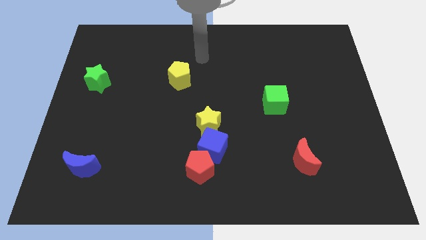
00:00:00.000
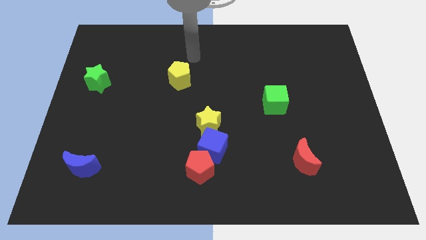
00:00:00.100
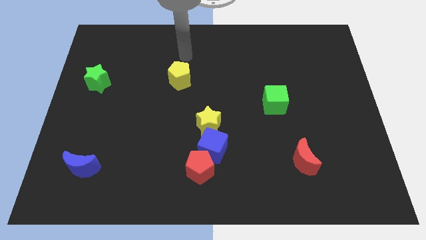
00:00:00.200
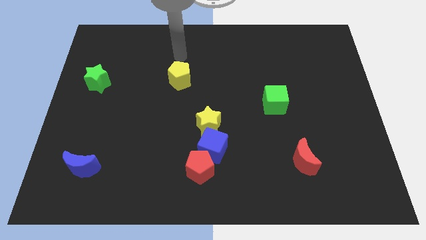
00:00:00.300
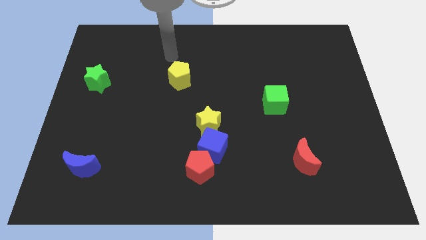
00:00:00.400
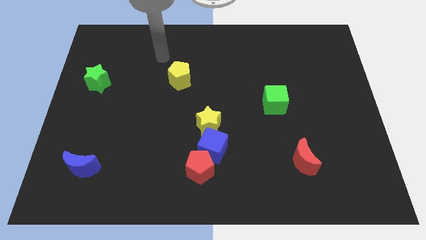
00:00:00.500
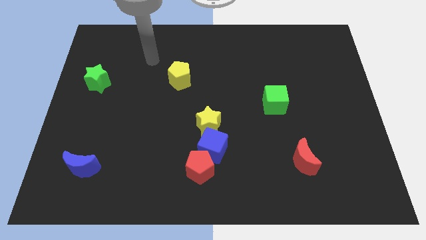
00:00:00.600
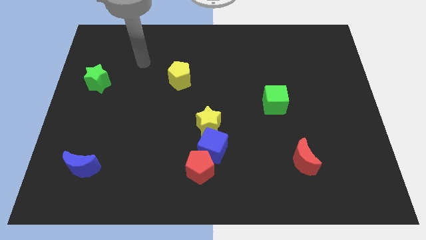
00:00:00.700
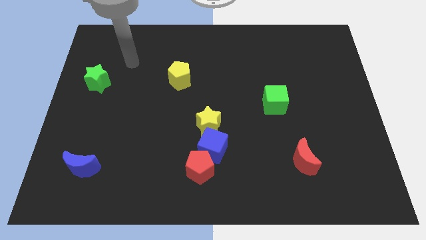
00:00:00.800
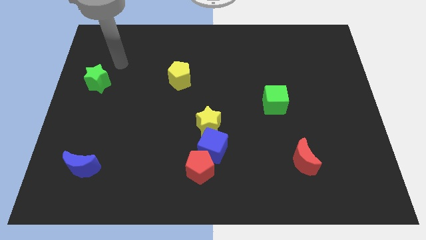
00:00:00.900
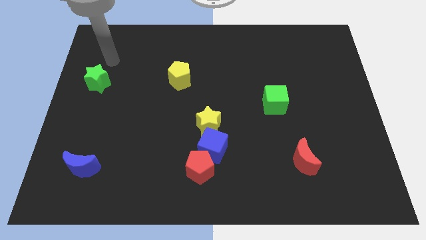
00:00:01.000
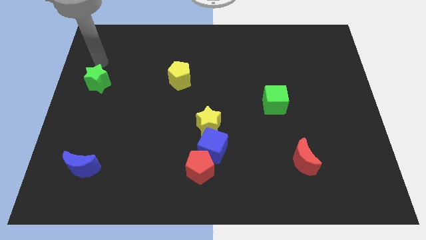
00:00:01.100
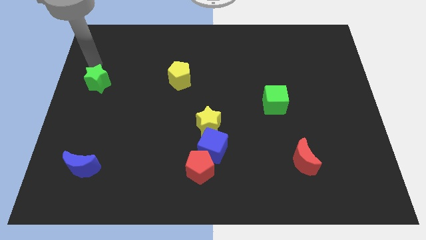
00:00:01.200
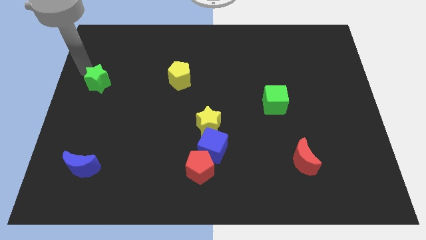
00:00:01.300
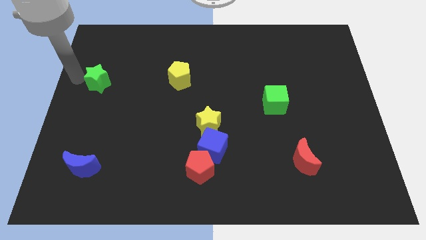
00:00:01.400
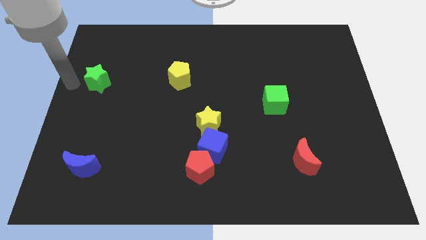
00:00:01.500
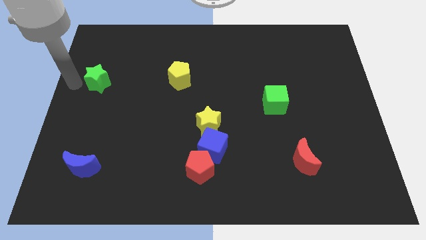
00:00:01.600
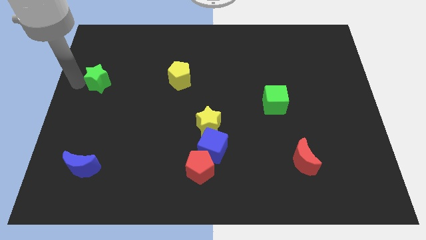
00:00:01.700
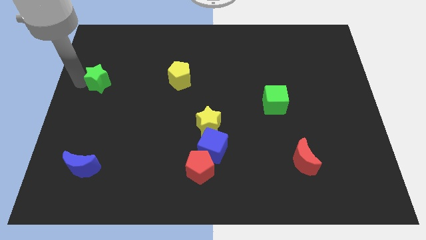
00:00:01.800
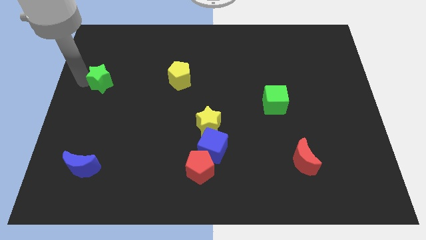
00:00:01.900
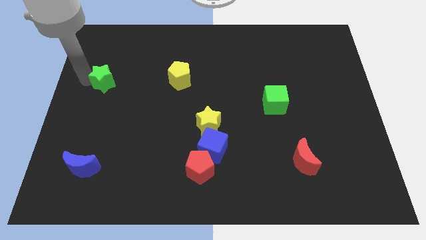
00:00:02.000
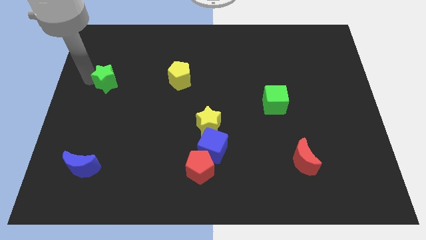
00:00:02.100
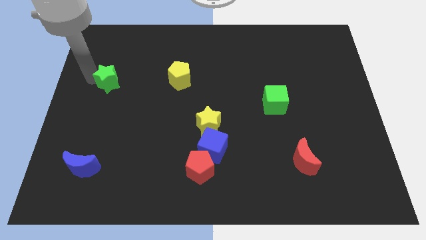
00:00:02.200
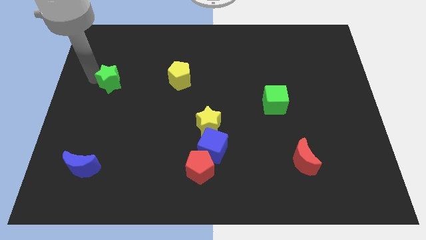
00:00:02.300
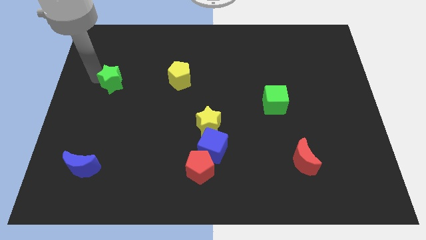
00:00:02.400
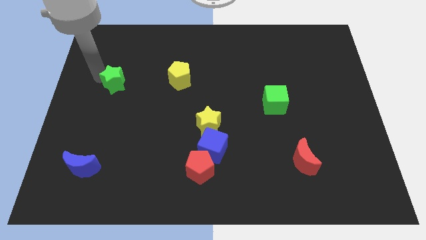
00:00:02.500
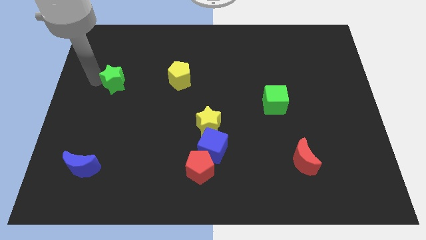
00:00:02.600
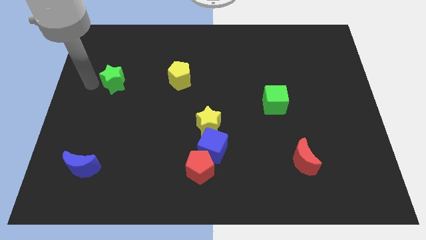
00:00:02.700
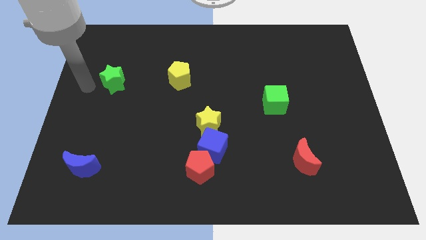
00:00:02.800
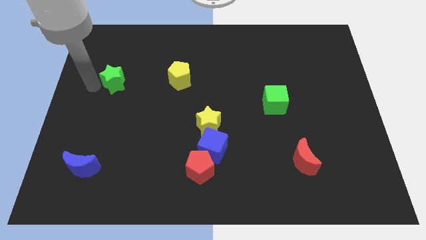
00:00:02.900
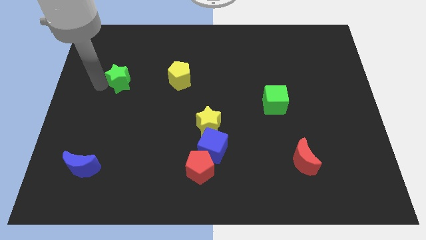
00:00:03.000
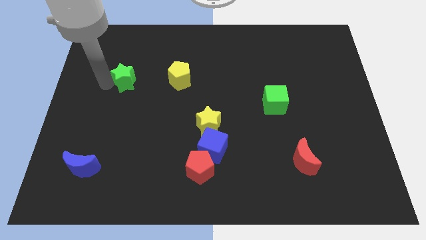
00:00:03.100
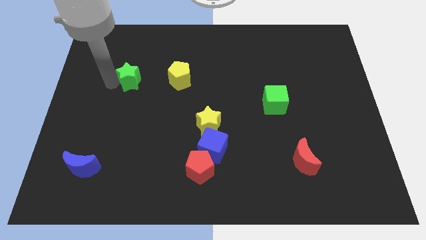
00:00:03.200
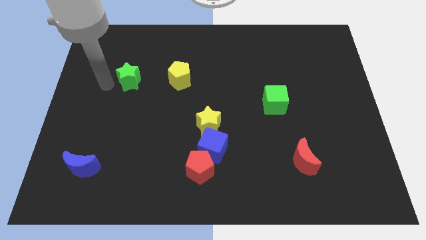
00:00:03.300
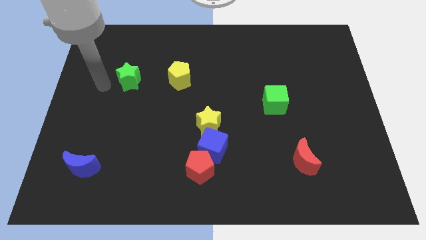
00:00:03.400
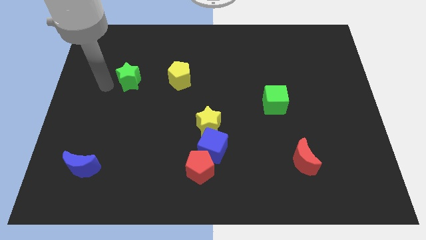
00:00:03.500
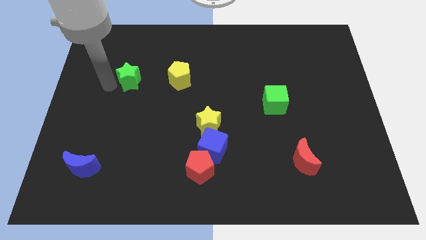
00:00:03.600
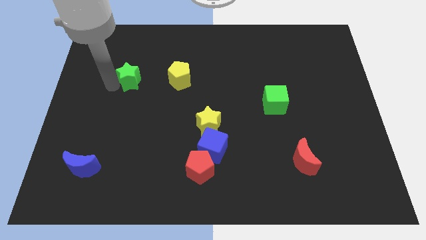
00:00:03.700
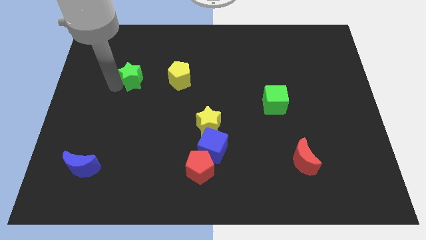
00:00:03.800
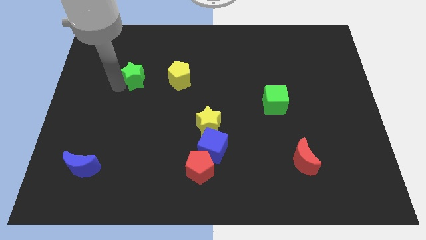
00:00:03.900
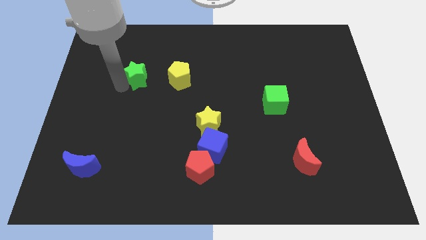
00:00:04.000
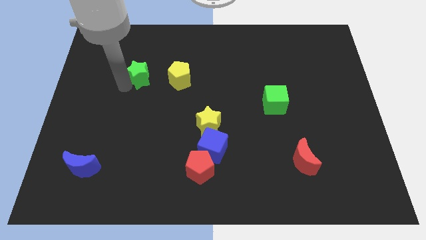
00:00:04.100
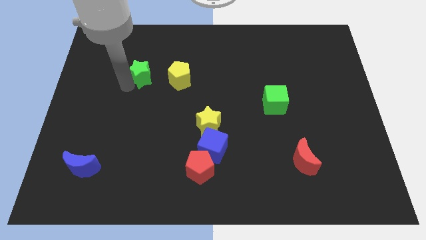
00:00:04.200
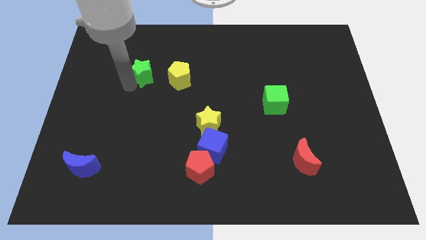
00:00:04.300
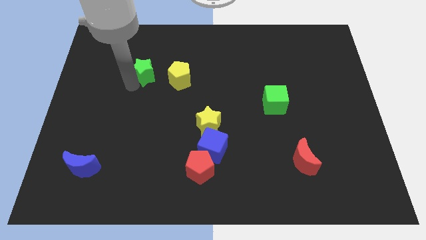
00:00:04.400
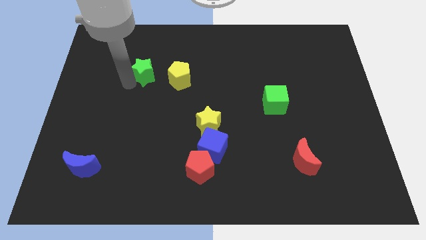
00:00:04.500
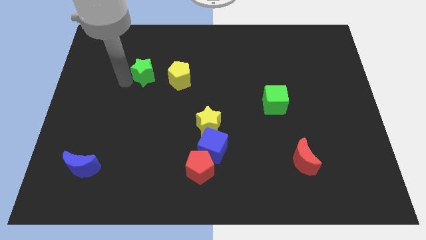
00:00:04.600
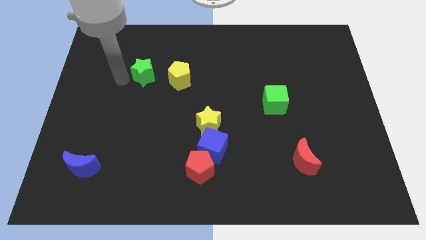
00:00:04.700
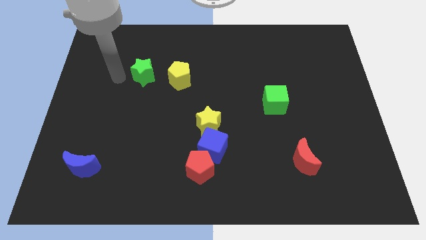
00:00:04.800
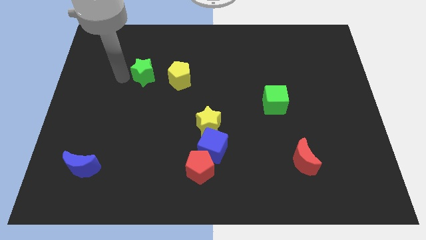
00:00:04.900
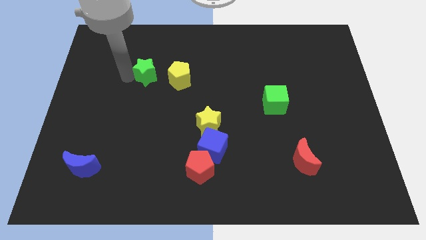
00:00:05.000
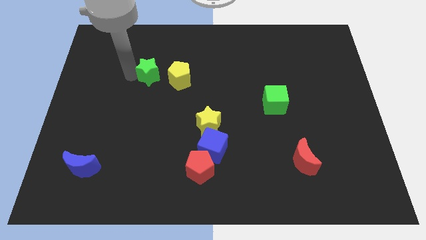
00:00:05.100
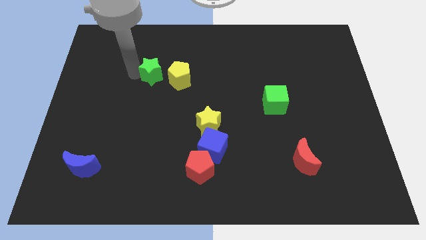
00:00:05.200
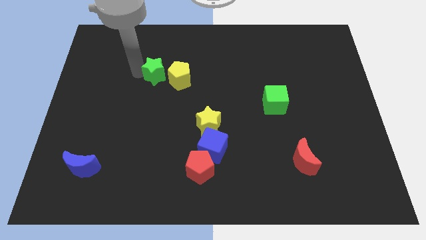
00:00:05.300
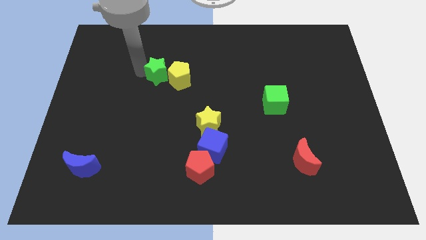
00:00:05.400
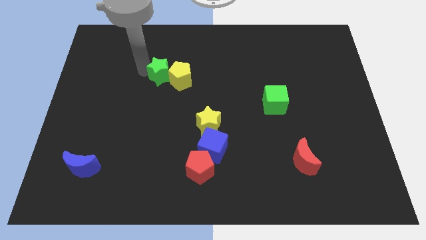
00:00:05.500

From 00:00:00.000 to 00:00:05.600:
move the green star towards the yellow pentagon

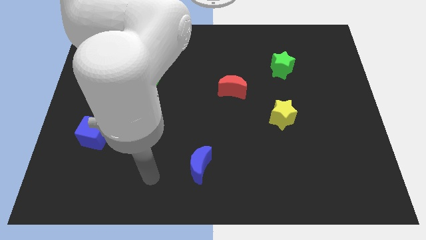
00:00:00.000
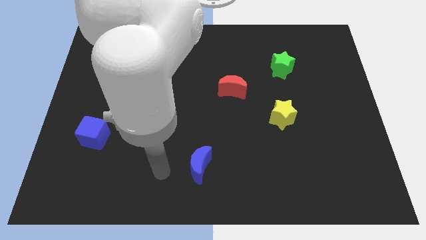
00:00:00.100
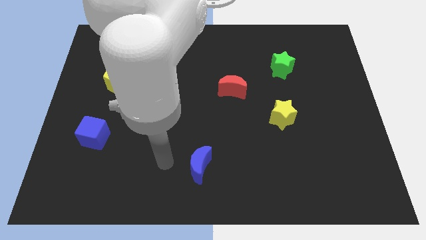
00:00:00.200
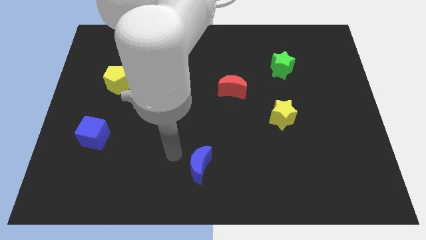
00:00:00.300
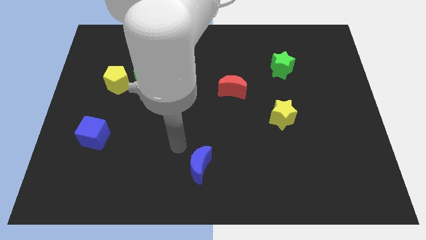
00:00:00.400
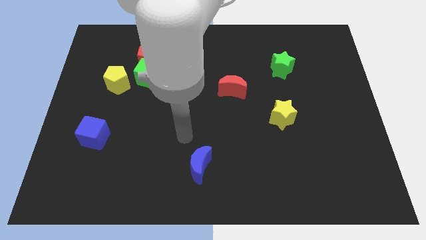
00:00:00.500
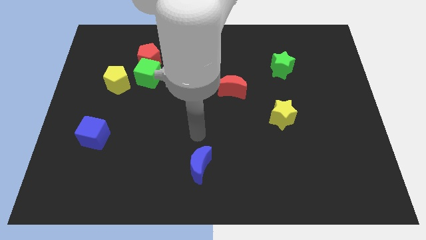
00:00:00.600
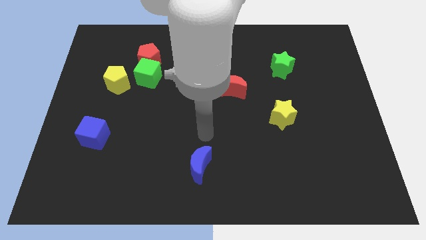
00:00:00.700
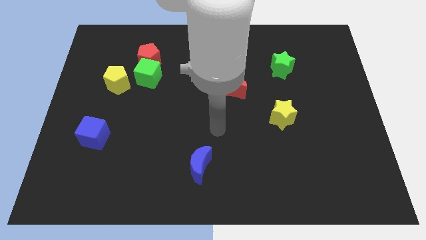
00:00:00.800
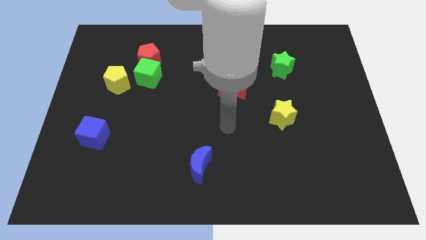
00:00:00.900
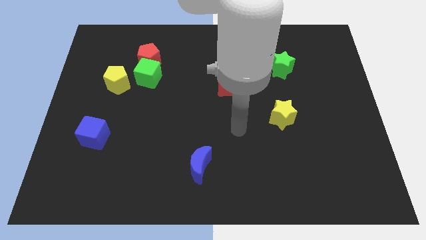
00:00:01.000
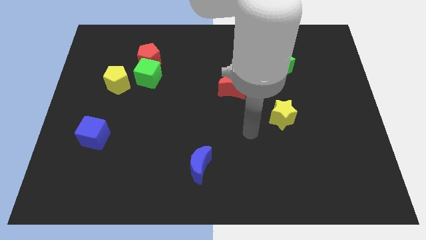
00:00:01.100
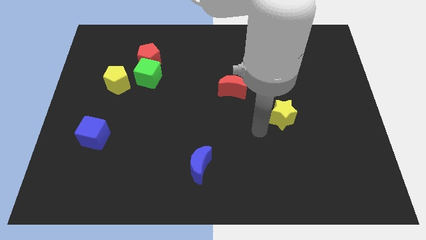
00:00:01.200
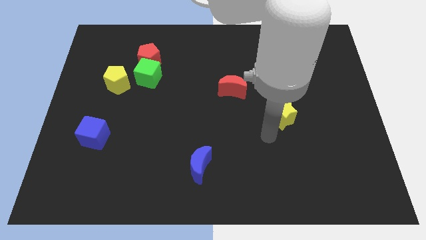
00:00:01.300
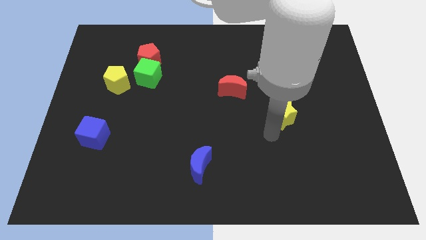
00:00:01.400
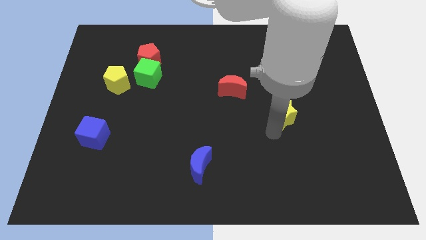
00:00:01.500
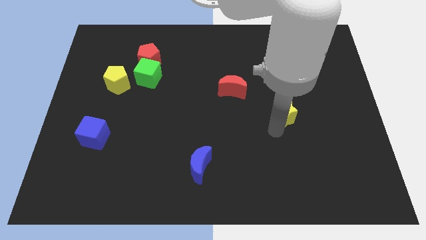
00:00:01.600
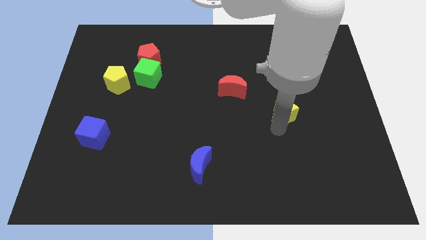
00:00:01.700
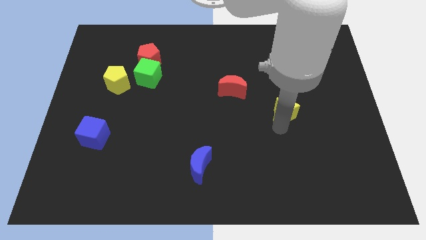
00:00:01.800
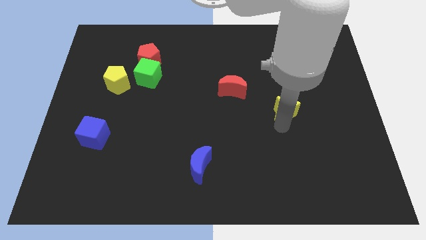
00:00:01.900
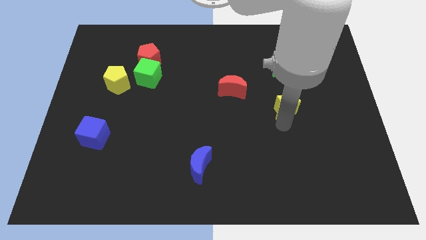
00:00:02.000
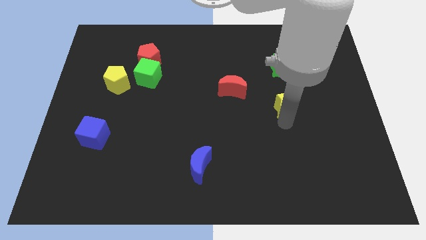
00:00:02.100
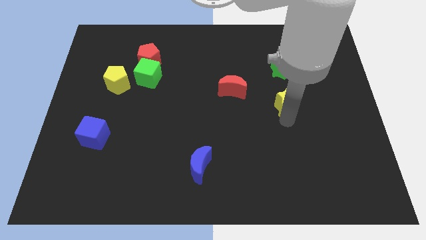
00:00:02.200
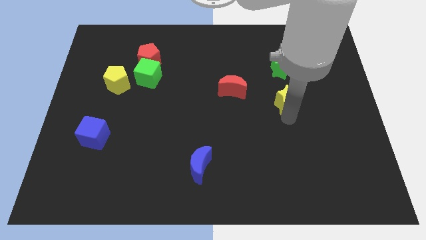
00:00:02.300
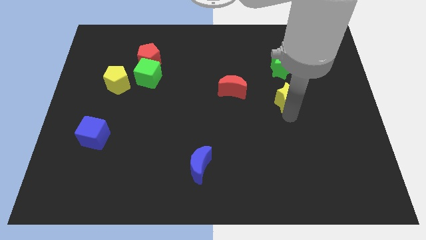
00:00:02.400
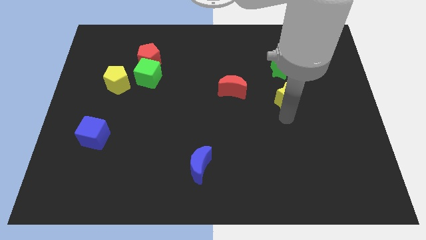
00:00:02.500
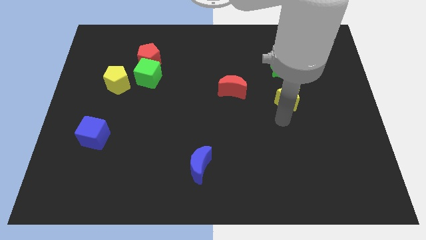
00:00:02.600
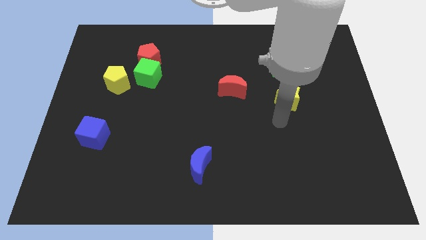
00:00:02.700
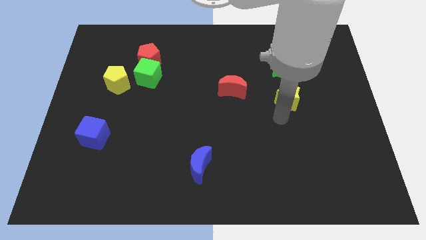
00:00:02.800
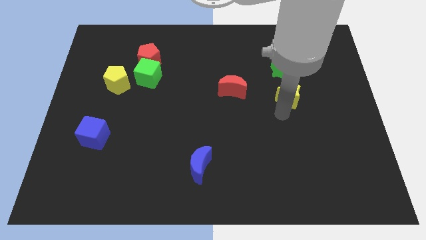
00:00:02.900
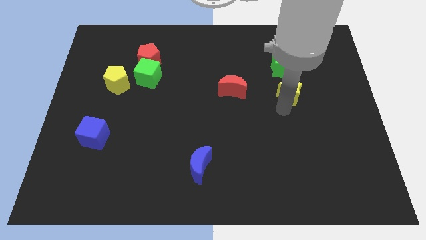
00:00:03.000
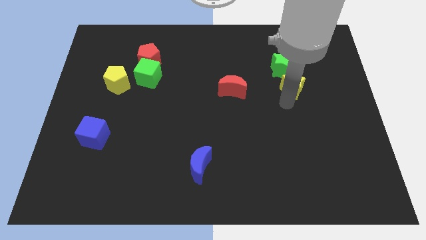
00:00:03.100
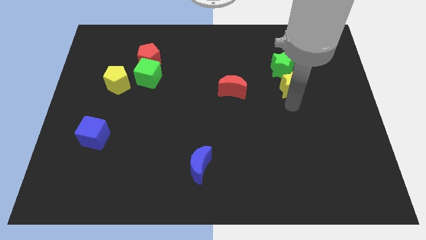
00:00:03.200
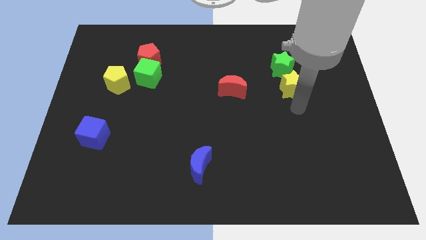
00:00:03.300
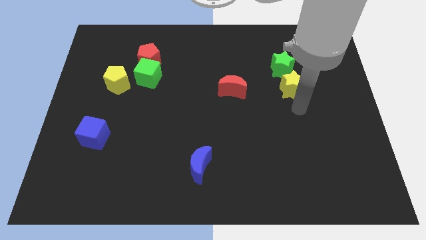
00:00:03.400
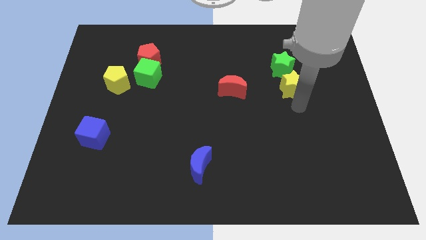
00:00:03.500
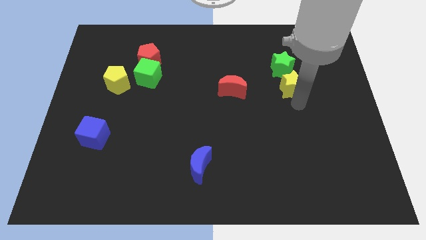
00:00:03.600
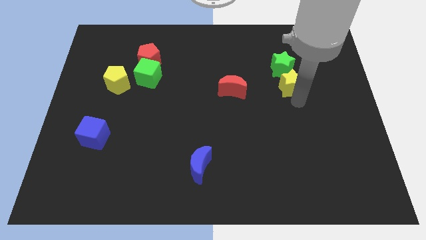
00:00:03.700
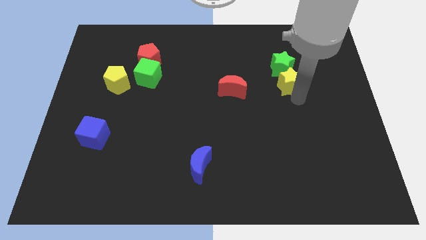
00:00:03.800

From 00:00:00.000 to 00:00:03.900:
put the yellow star to the green star
